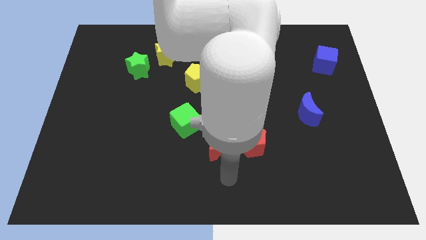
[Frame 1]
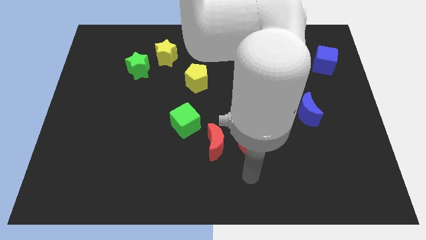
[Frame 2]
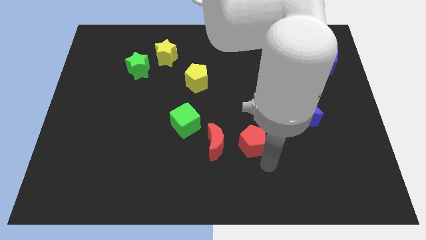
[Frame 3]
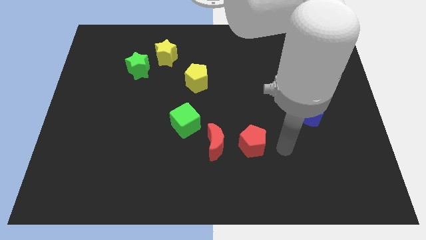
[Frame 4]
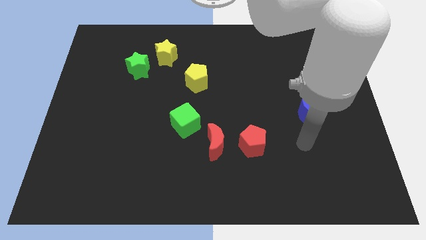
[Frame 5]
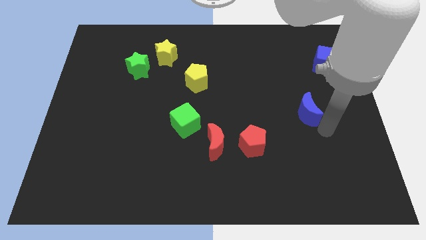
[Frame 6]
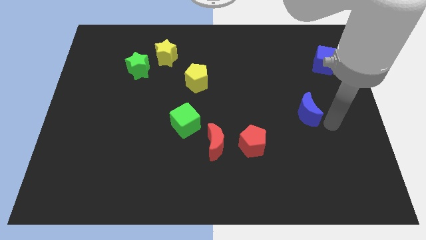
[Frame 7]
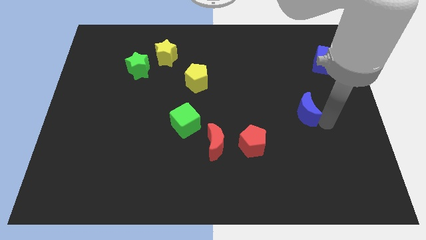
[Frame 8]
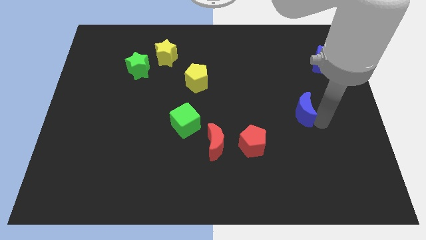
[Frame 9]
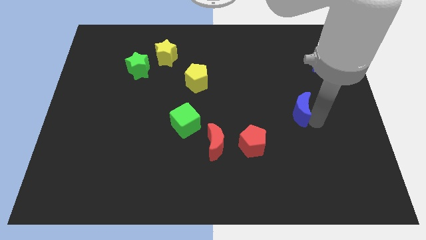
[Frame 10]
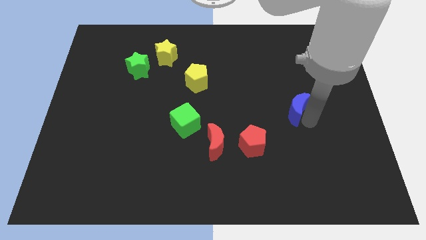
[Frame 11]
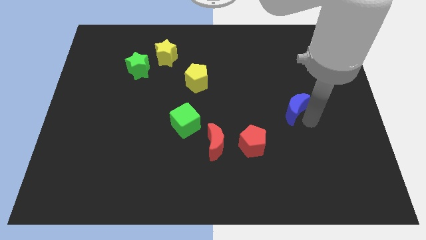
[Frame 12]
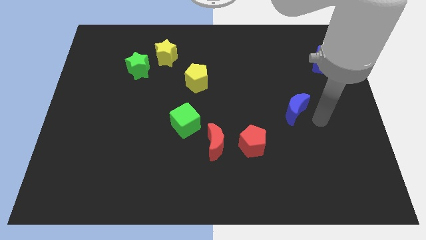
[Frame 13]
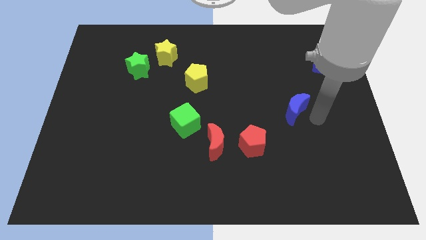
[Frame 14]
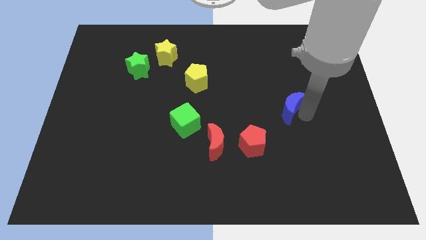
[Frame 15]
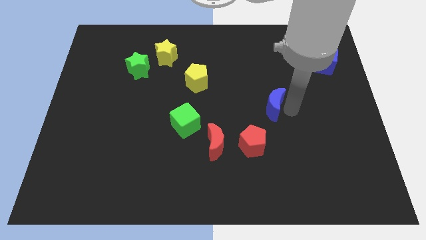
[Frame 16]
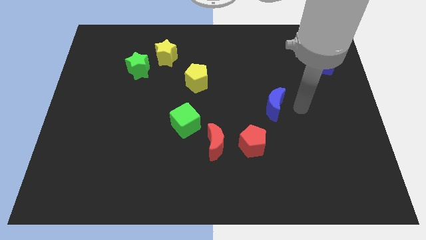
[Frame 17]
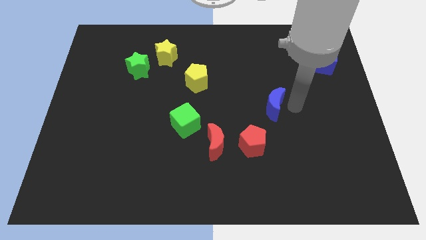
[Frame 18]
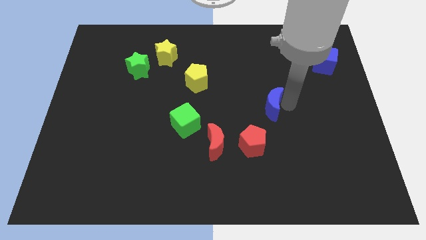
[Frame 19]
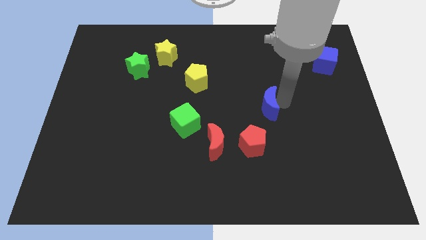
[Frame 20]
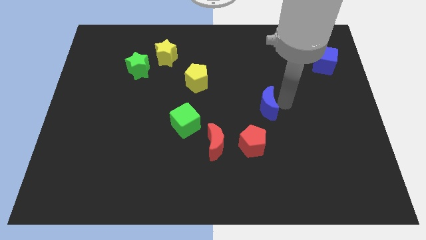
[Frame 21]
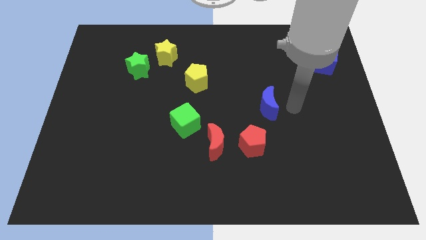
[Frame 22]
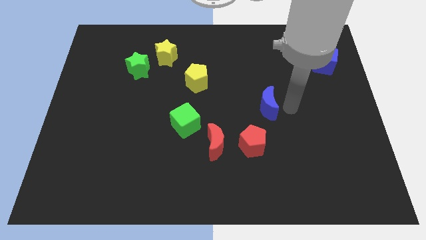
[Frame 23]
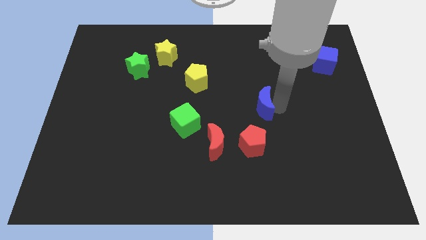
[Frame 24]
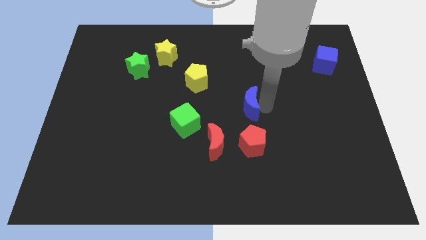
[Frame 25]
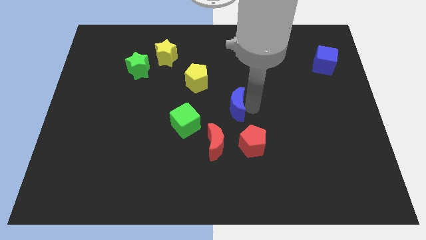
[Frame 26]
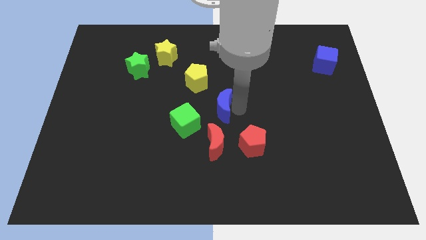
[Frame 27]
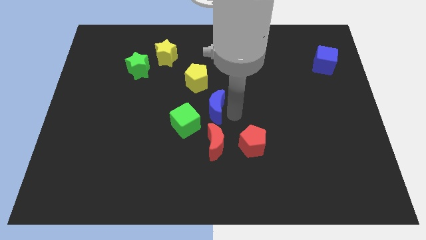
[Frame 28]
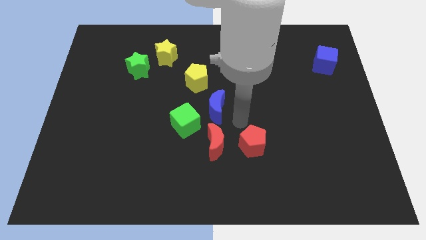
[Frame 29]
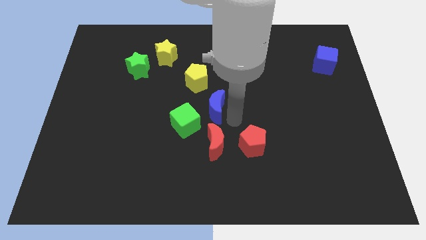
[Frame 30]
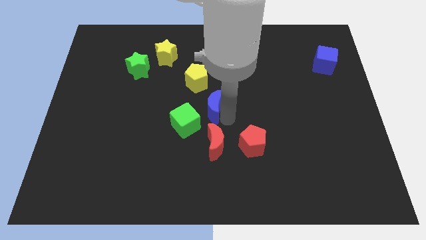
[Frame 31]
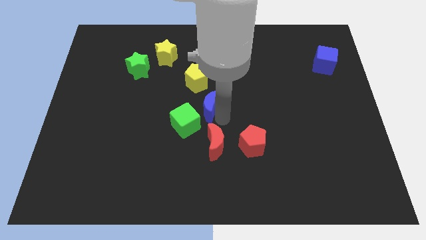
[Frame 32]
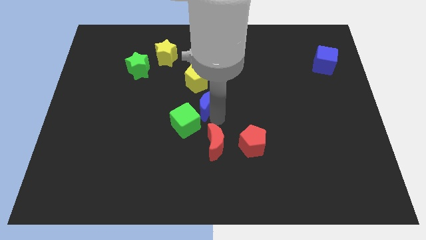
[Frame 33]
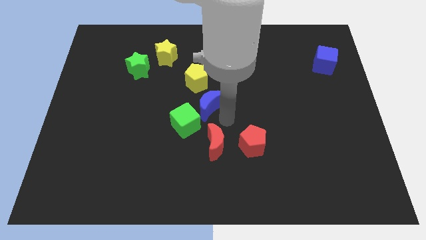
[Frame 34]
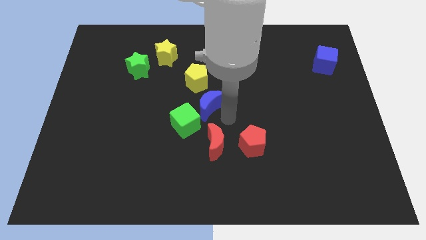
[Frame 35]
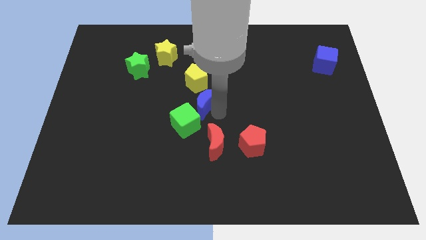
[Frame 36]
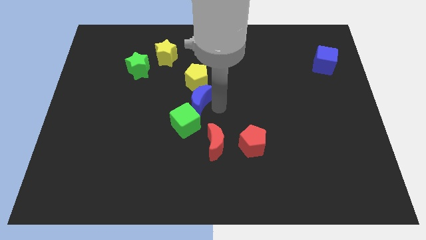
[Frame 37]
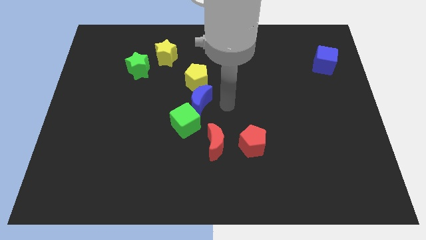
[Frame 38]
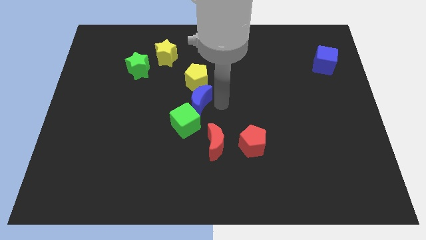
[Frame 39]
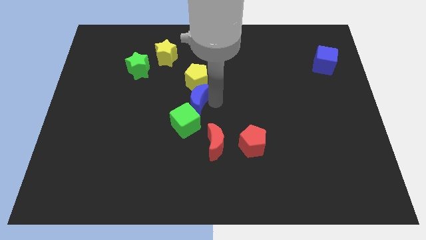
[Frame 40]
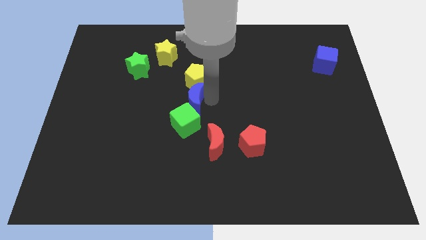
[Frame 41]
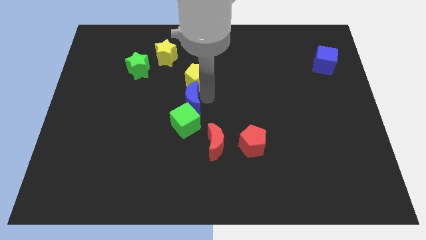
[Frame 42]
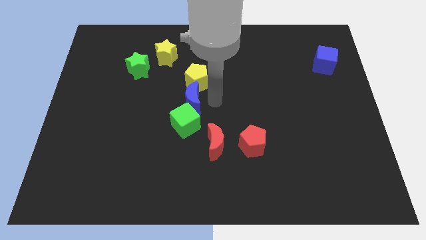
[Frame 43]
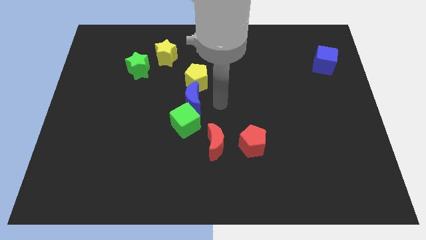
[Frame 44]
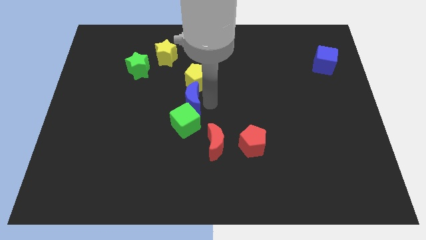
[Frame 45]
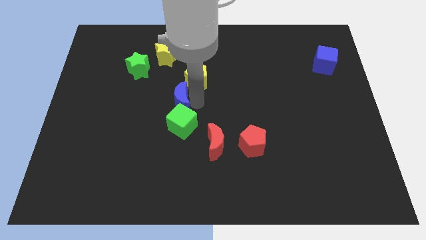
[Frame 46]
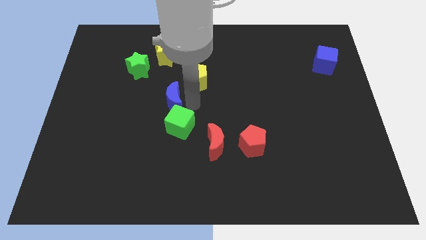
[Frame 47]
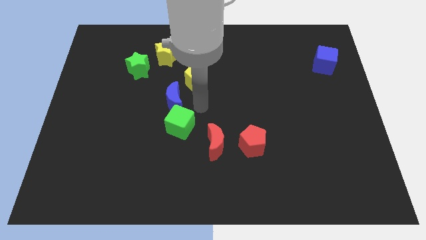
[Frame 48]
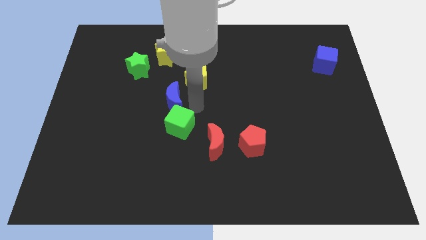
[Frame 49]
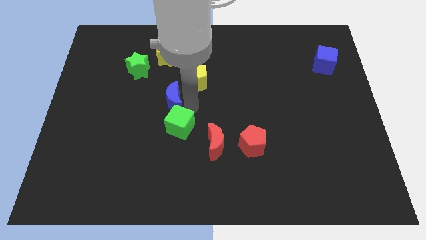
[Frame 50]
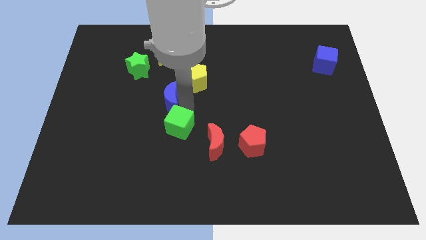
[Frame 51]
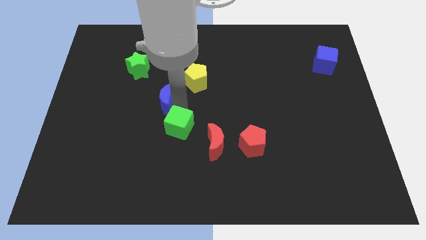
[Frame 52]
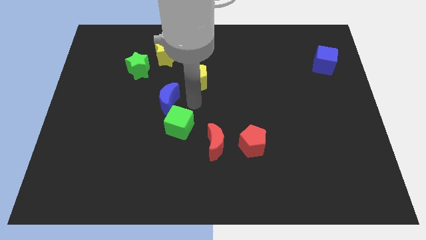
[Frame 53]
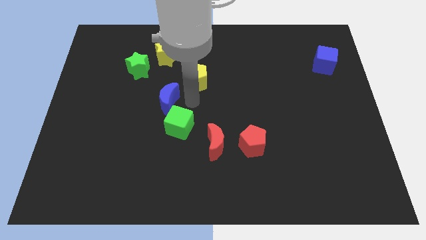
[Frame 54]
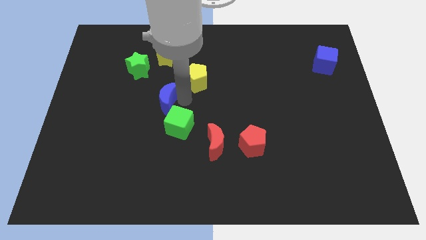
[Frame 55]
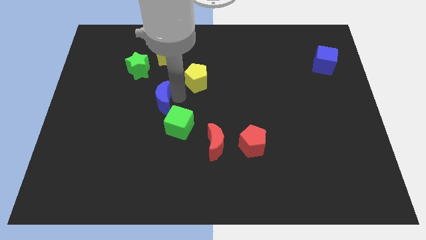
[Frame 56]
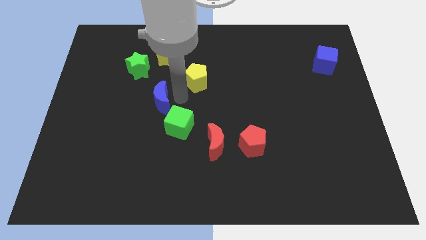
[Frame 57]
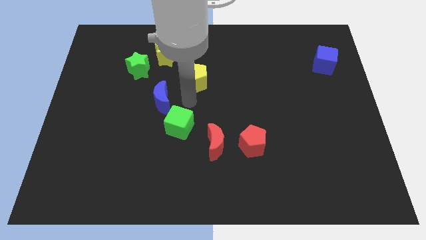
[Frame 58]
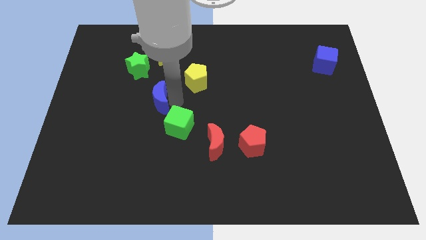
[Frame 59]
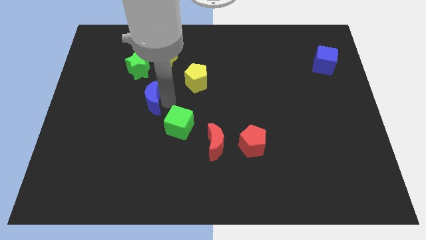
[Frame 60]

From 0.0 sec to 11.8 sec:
move the blue moon below the green star
